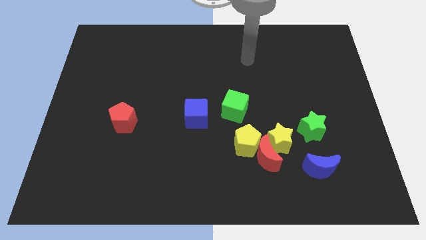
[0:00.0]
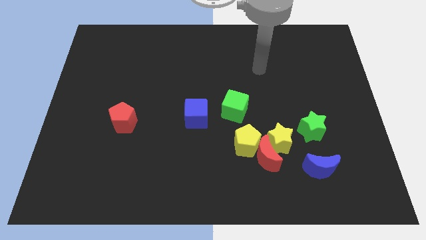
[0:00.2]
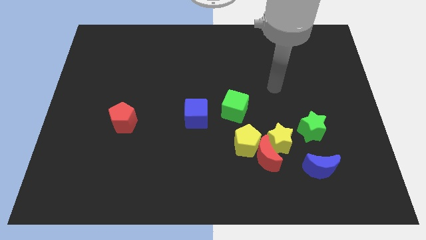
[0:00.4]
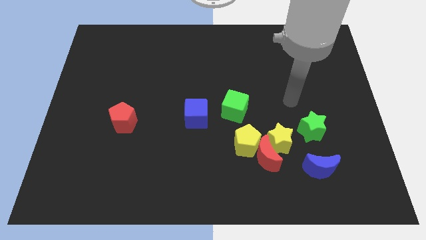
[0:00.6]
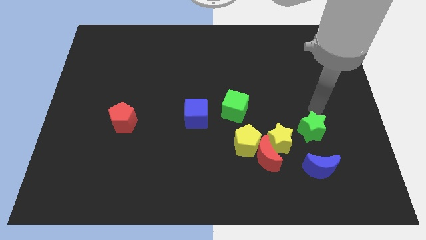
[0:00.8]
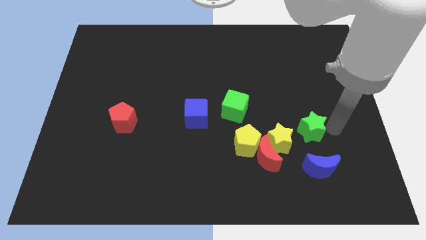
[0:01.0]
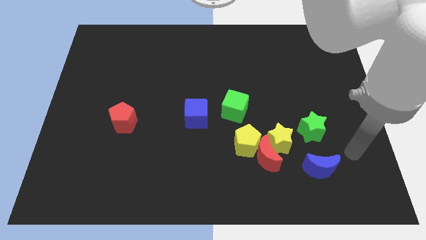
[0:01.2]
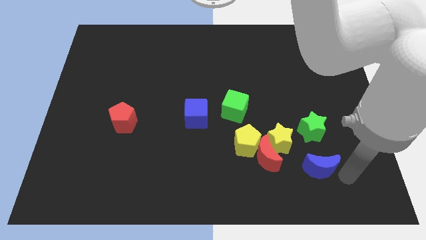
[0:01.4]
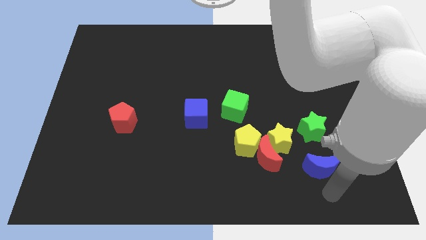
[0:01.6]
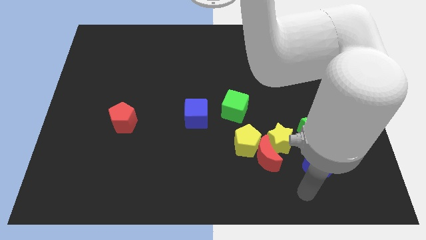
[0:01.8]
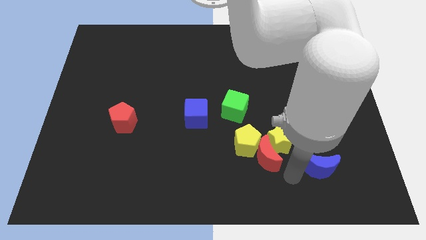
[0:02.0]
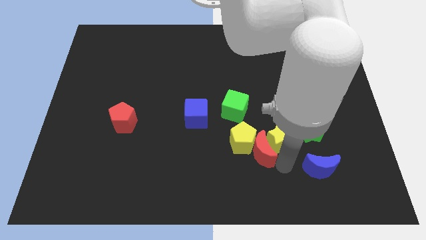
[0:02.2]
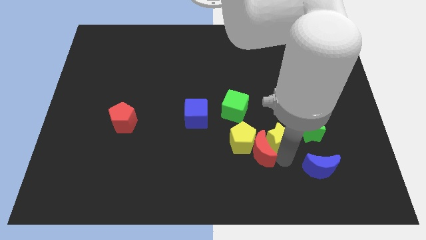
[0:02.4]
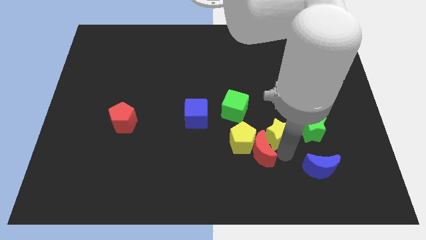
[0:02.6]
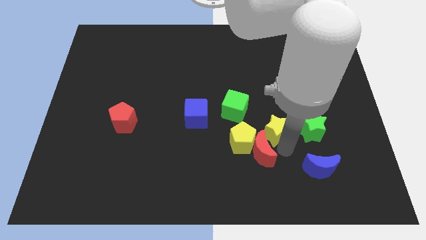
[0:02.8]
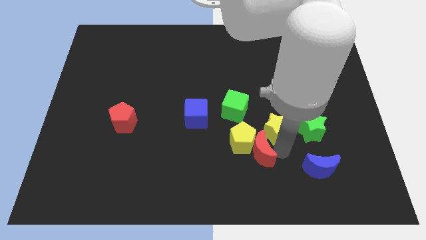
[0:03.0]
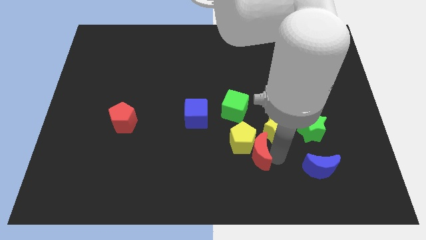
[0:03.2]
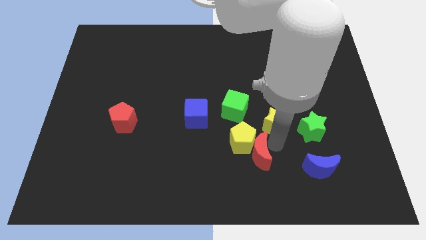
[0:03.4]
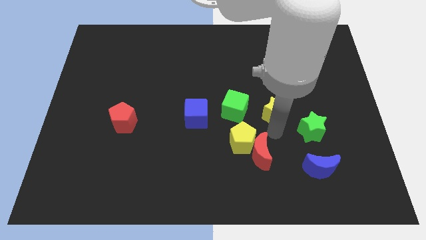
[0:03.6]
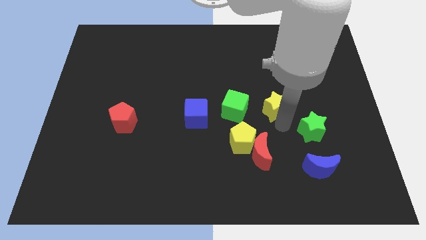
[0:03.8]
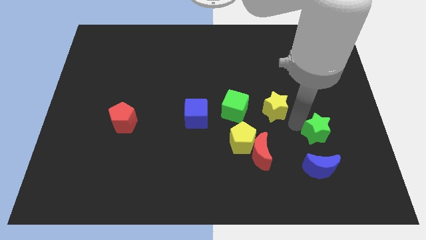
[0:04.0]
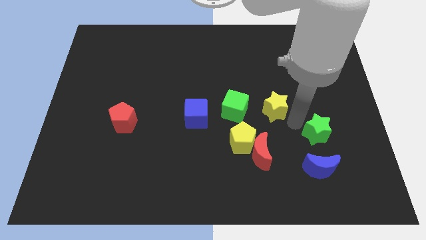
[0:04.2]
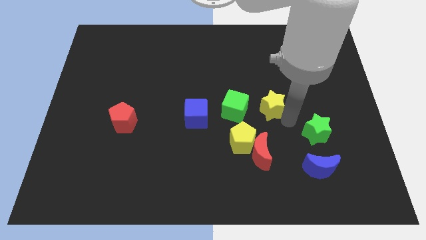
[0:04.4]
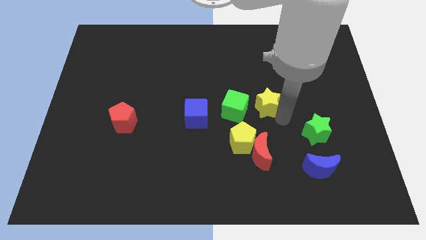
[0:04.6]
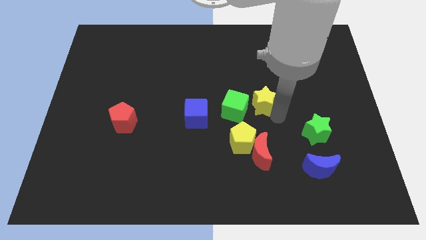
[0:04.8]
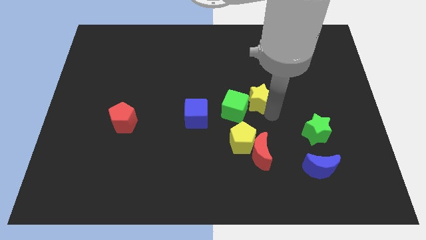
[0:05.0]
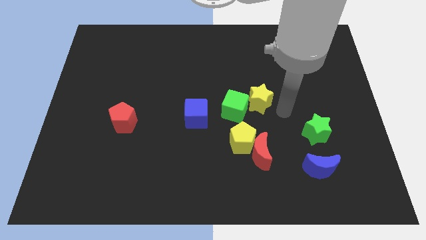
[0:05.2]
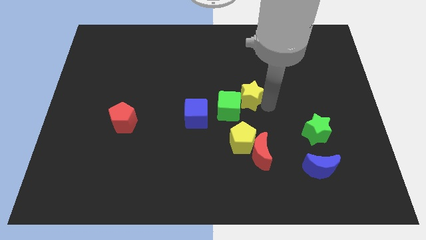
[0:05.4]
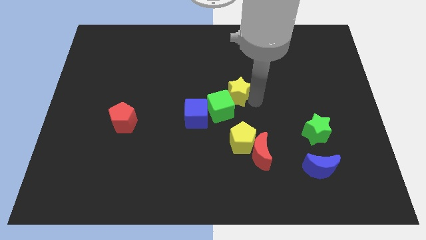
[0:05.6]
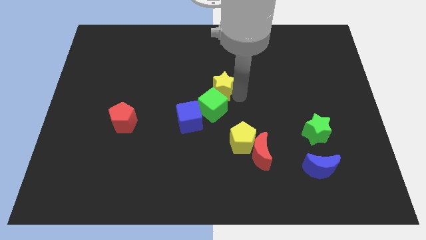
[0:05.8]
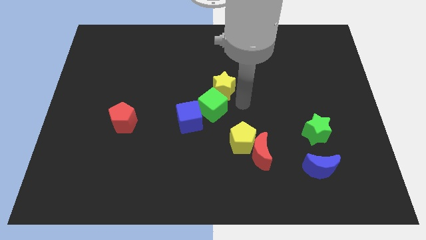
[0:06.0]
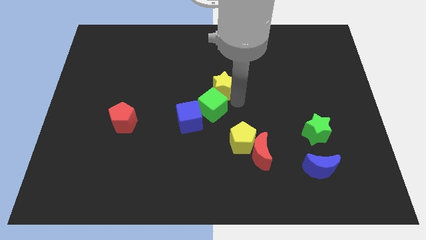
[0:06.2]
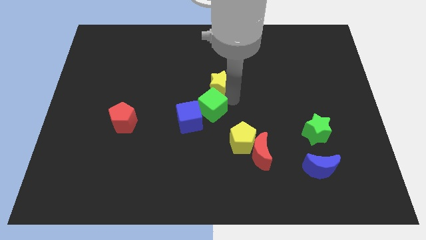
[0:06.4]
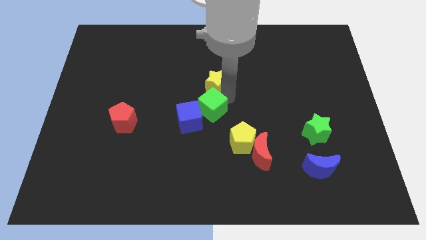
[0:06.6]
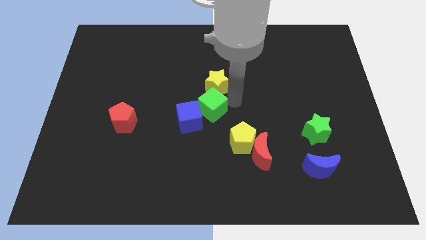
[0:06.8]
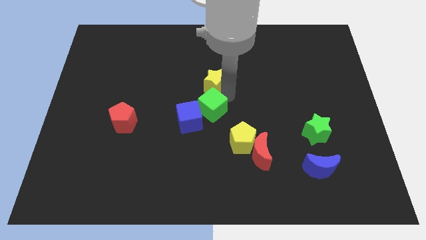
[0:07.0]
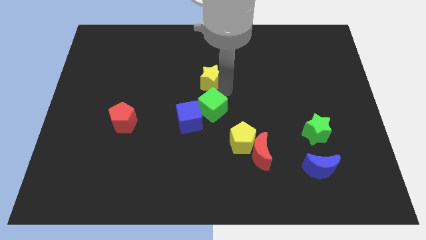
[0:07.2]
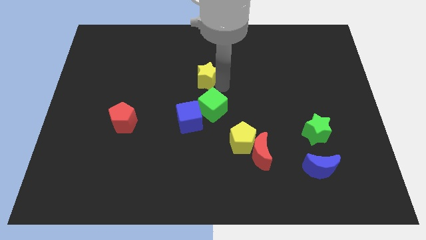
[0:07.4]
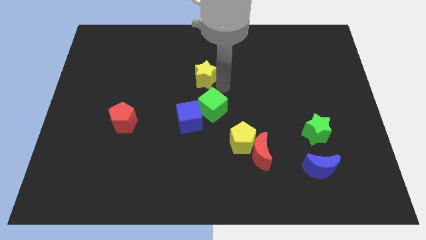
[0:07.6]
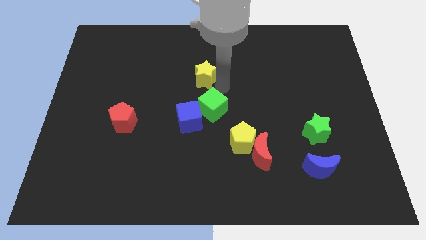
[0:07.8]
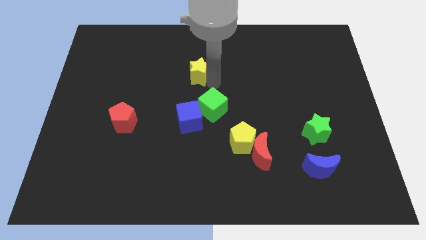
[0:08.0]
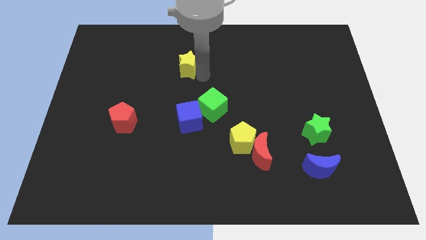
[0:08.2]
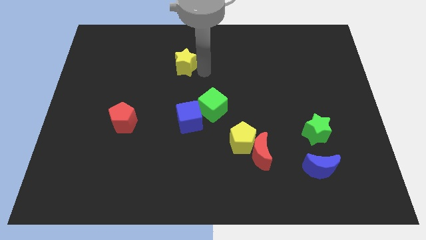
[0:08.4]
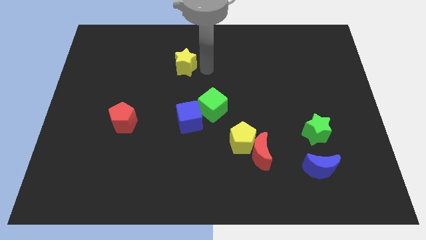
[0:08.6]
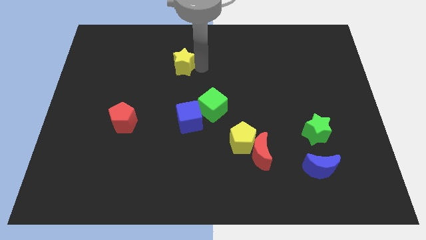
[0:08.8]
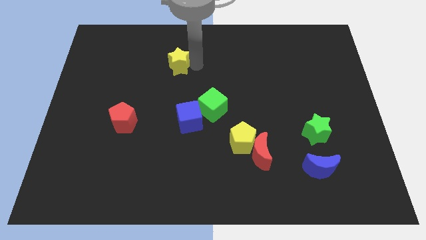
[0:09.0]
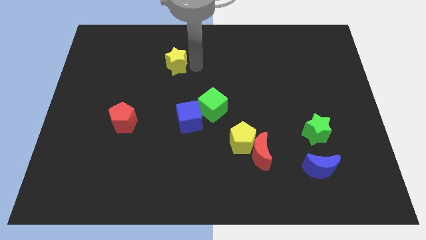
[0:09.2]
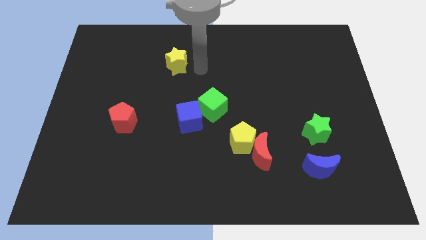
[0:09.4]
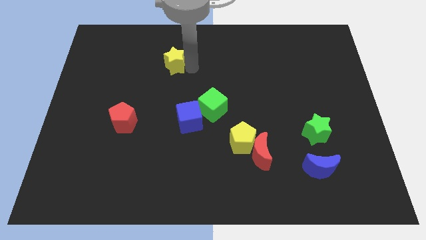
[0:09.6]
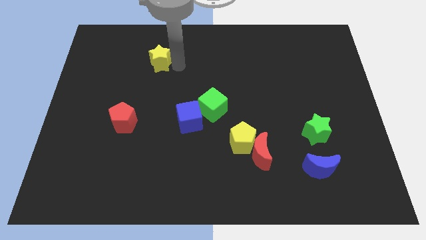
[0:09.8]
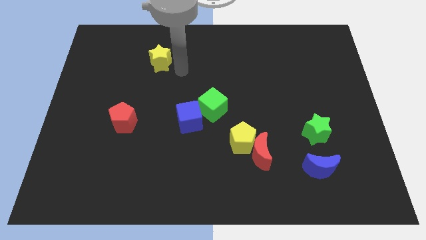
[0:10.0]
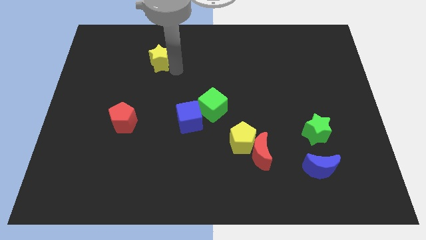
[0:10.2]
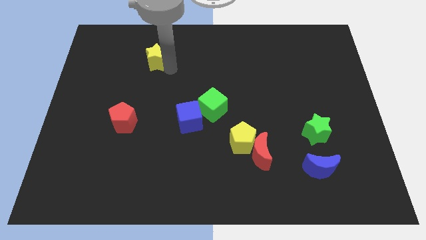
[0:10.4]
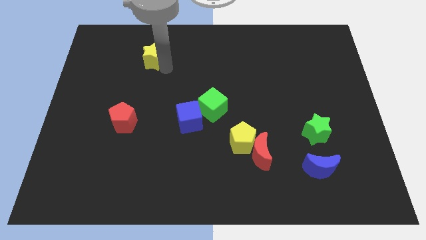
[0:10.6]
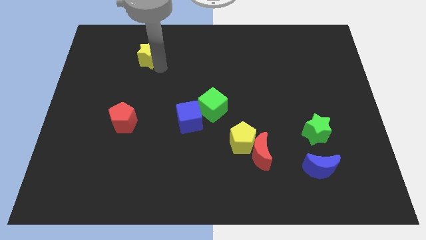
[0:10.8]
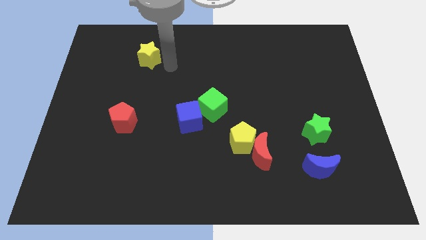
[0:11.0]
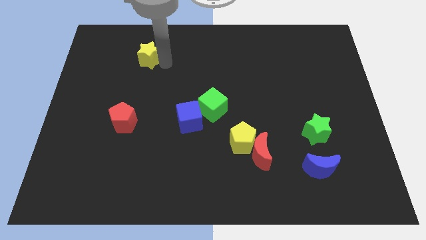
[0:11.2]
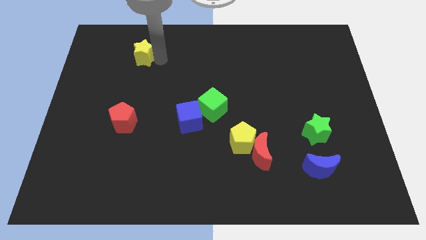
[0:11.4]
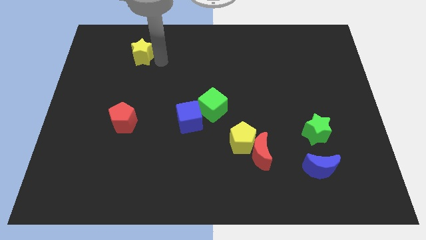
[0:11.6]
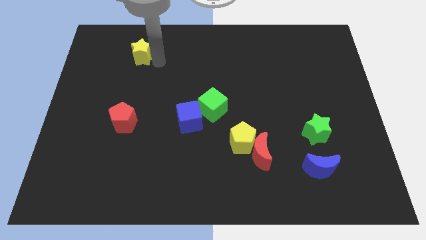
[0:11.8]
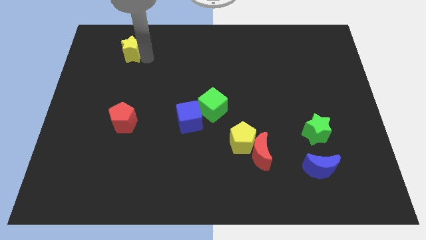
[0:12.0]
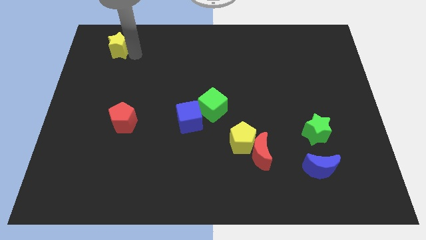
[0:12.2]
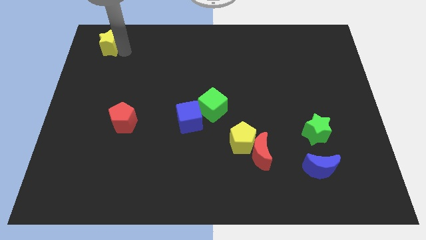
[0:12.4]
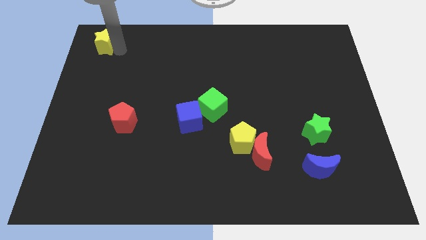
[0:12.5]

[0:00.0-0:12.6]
slide the yellow star to the top left of the board

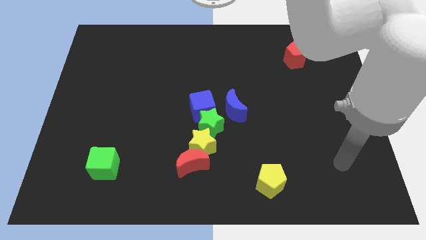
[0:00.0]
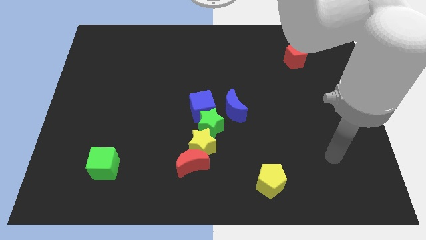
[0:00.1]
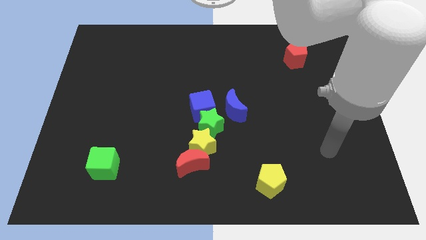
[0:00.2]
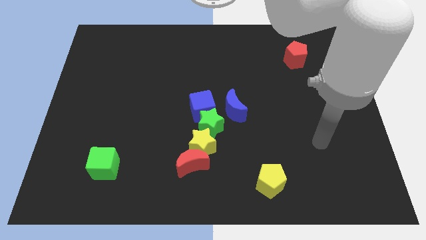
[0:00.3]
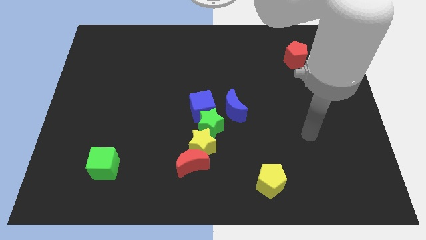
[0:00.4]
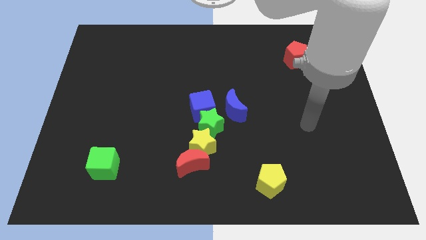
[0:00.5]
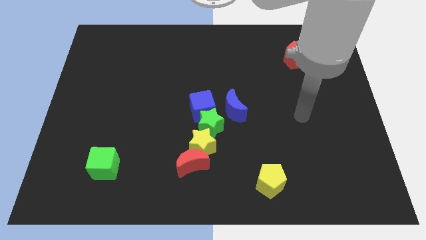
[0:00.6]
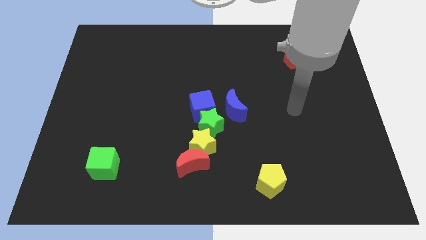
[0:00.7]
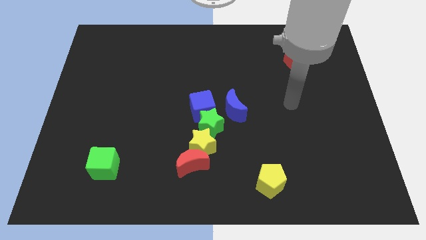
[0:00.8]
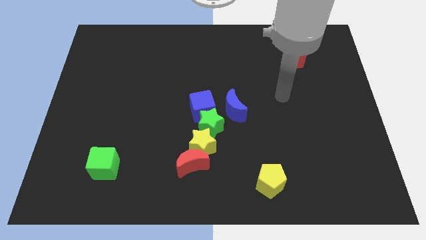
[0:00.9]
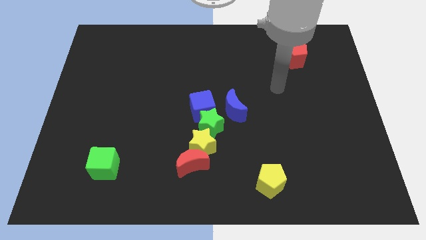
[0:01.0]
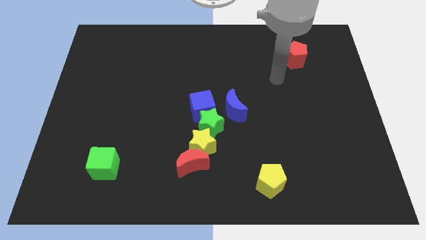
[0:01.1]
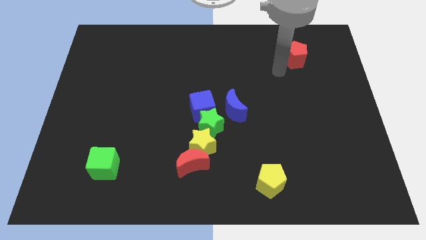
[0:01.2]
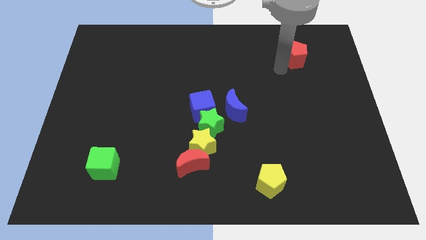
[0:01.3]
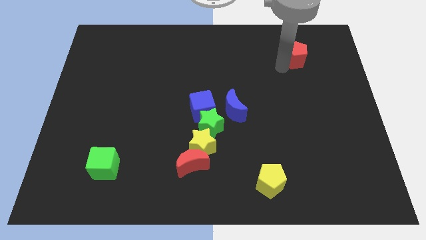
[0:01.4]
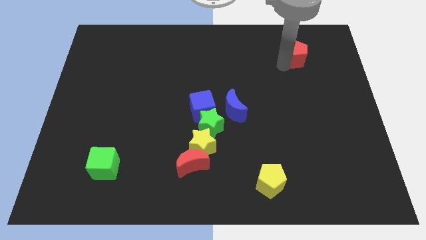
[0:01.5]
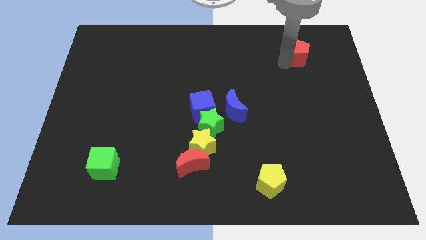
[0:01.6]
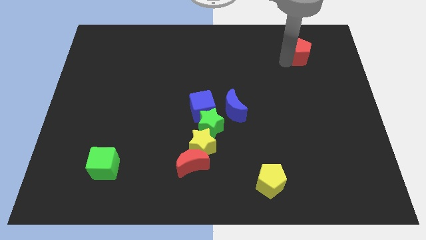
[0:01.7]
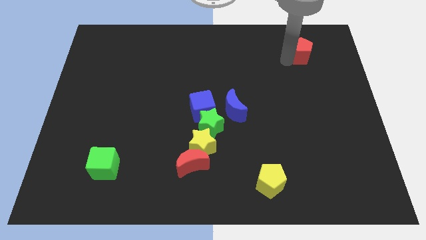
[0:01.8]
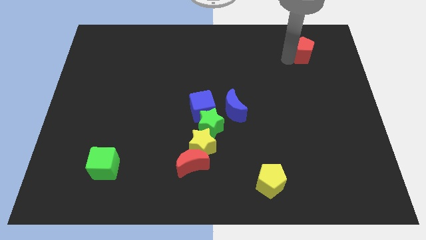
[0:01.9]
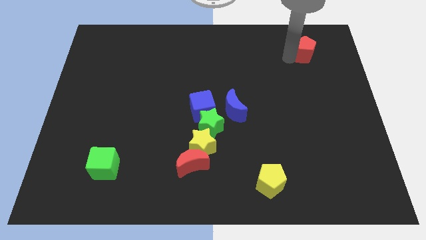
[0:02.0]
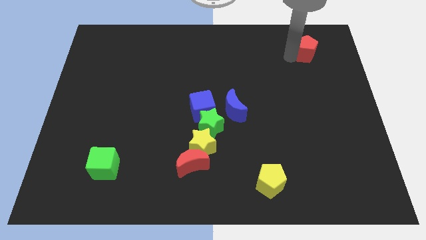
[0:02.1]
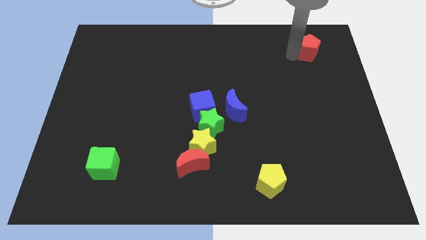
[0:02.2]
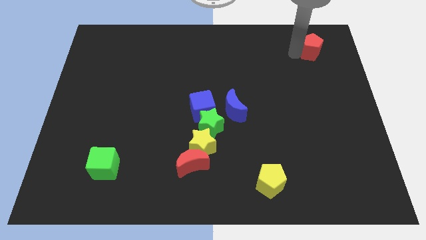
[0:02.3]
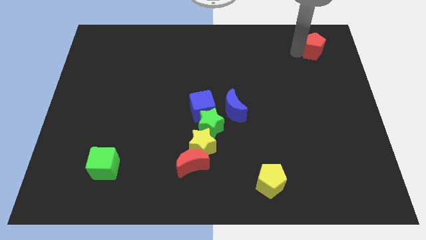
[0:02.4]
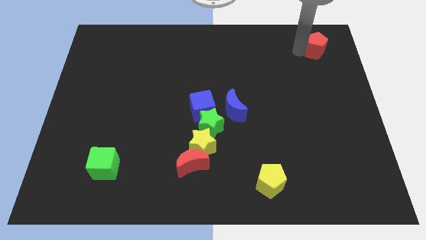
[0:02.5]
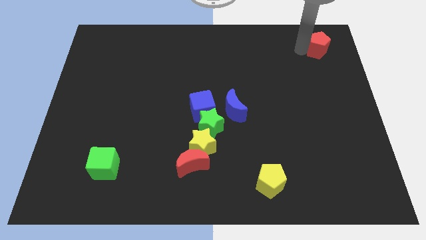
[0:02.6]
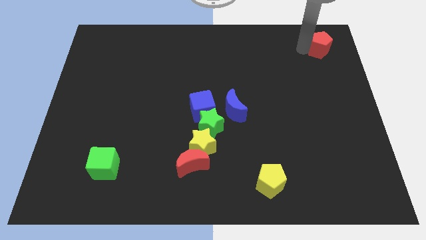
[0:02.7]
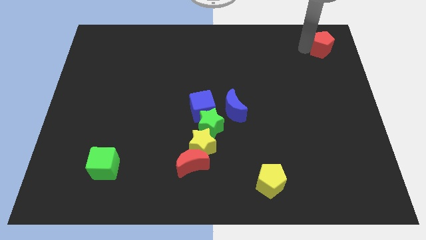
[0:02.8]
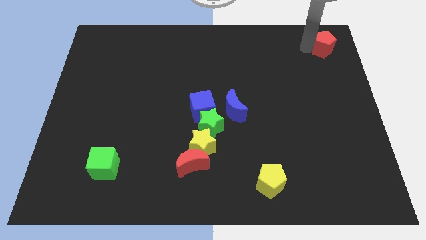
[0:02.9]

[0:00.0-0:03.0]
move the red pentagon to the top right
